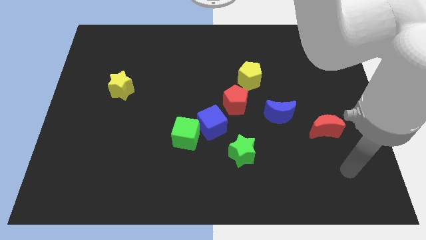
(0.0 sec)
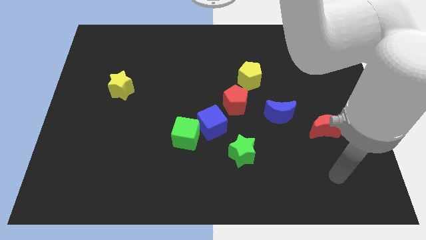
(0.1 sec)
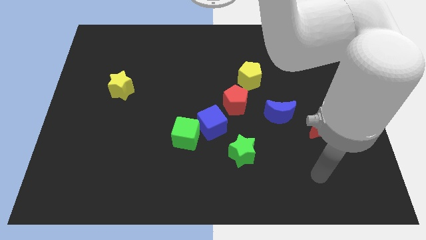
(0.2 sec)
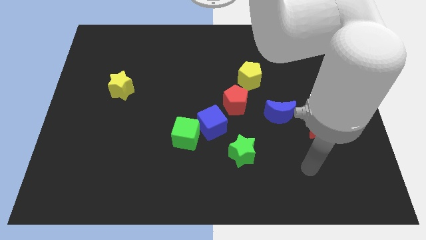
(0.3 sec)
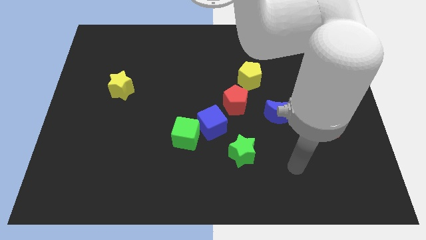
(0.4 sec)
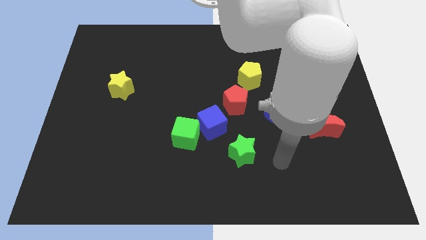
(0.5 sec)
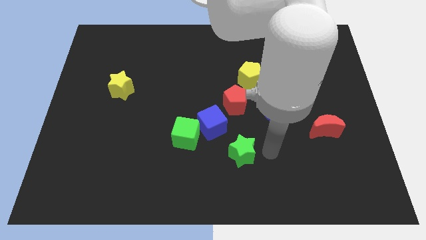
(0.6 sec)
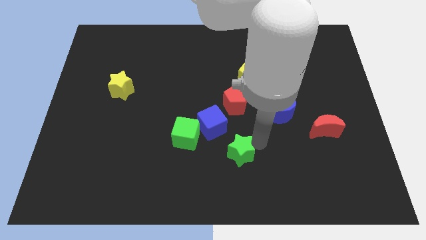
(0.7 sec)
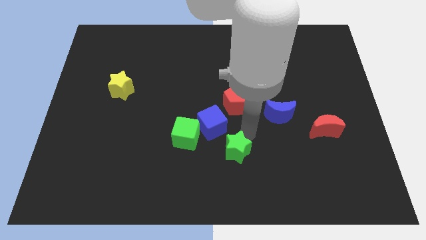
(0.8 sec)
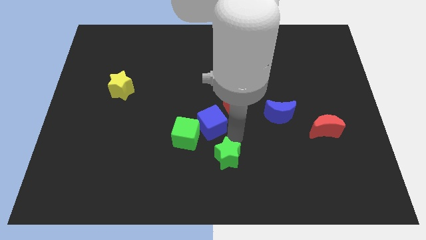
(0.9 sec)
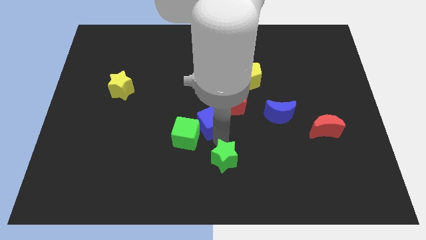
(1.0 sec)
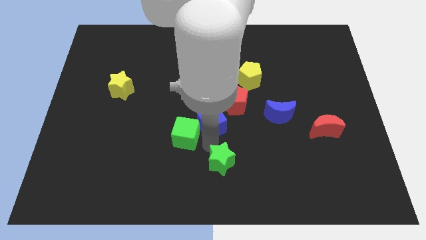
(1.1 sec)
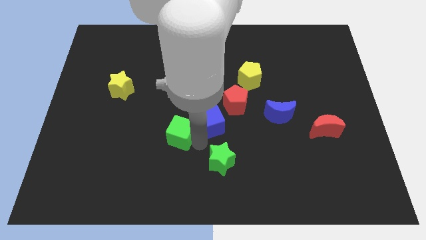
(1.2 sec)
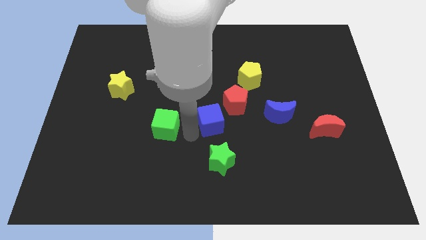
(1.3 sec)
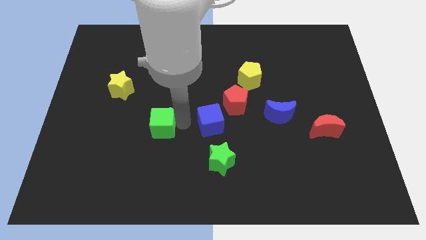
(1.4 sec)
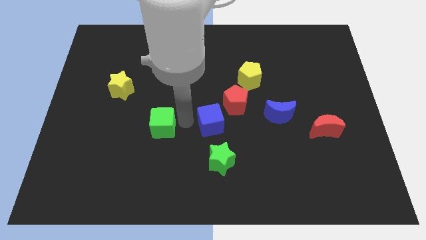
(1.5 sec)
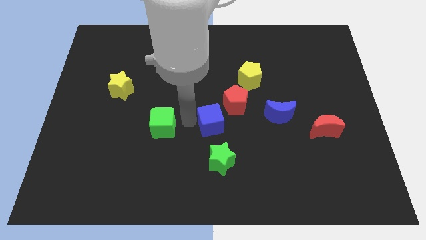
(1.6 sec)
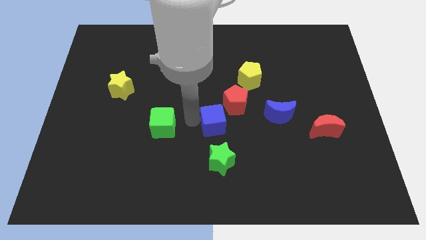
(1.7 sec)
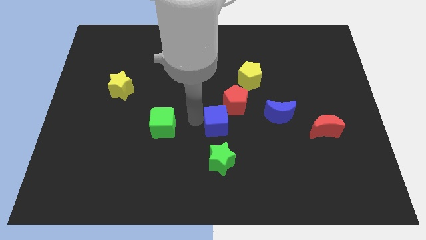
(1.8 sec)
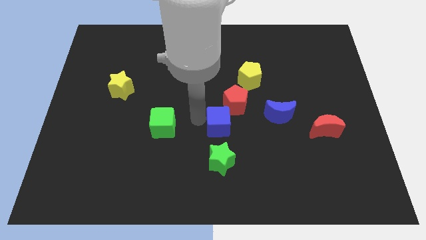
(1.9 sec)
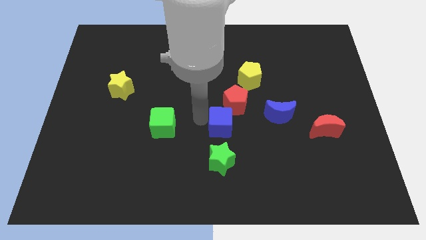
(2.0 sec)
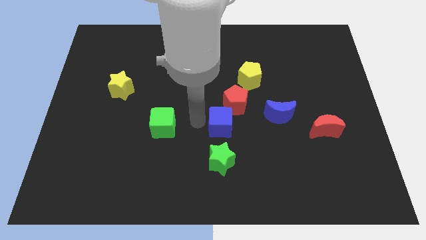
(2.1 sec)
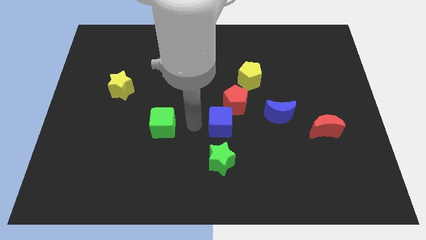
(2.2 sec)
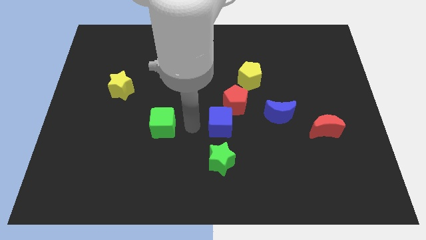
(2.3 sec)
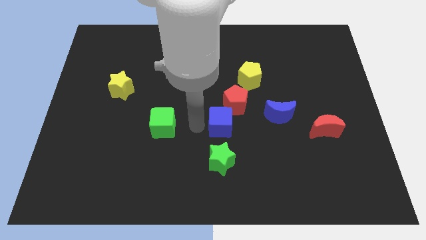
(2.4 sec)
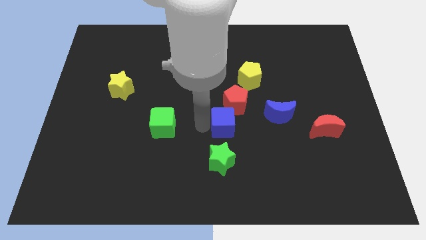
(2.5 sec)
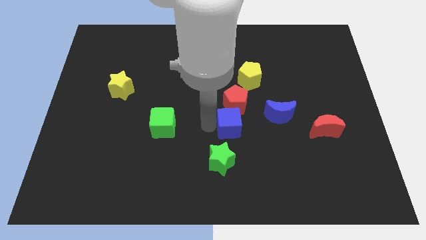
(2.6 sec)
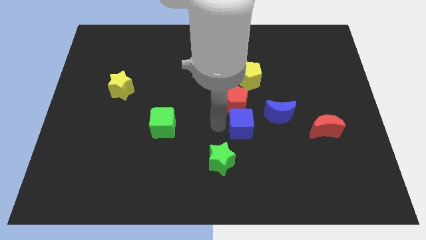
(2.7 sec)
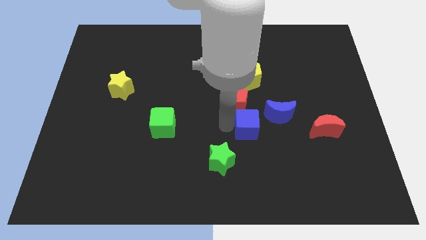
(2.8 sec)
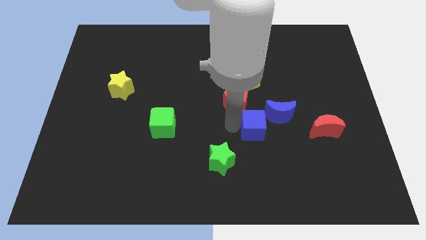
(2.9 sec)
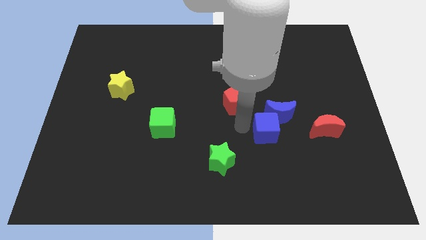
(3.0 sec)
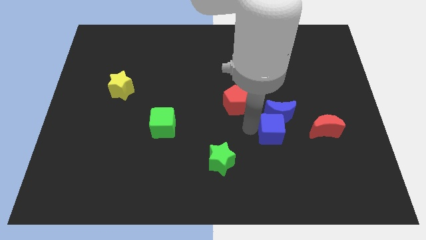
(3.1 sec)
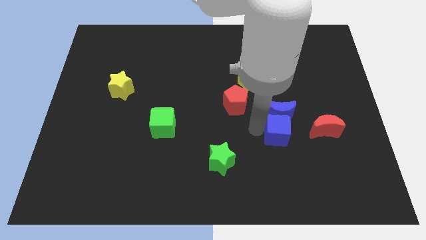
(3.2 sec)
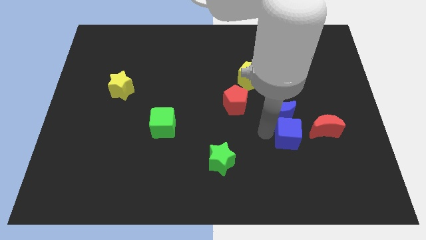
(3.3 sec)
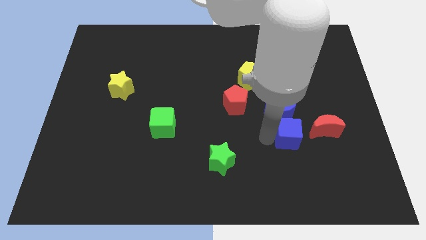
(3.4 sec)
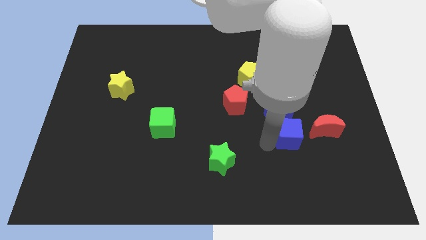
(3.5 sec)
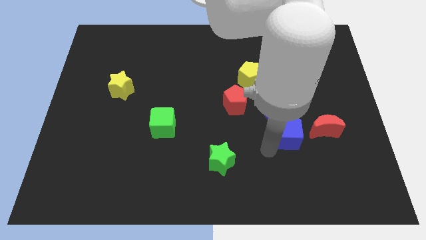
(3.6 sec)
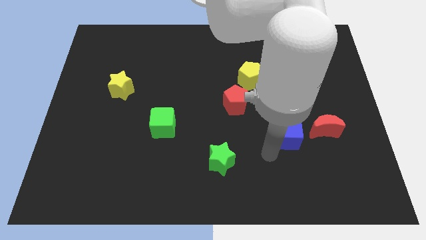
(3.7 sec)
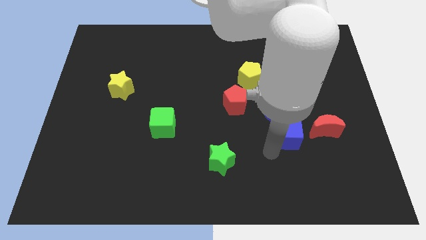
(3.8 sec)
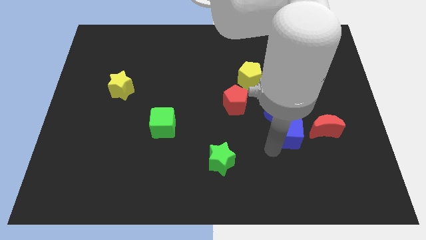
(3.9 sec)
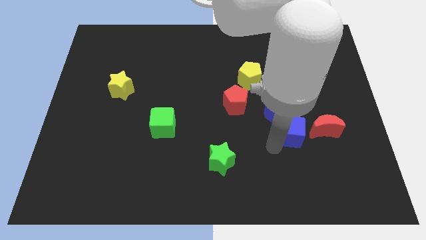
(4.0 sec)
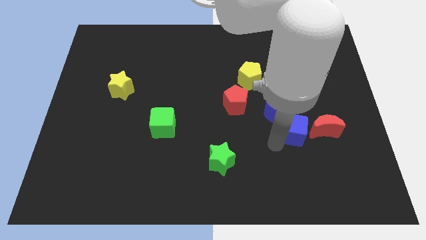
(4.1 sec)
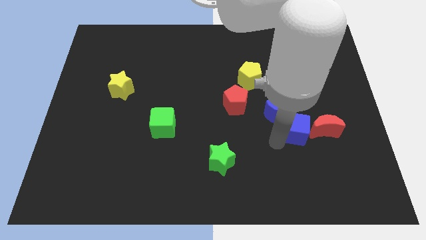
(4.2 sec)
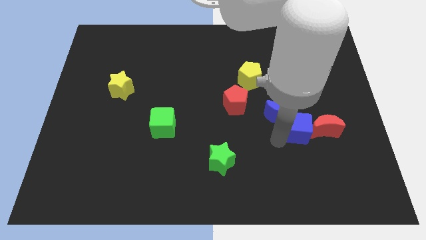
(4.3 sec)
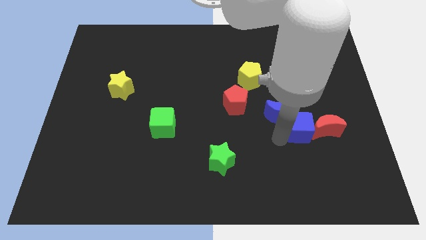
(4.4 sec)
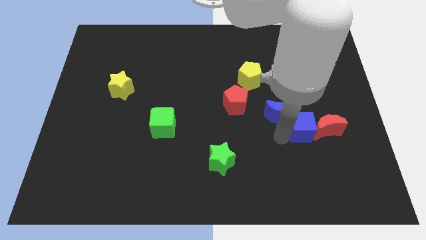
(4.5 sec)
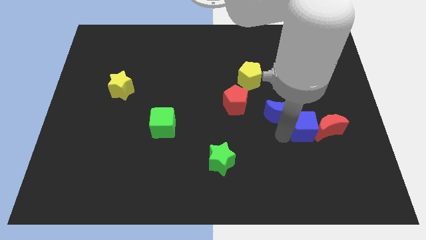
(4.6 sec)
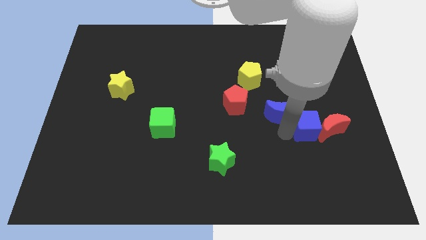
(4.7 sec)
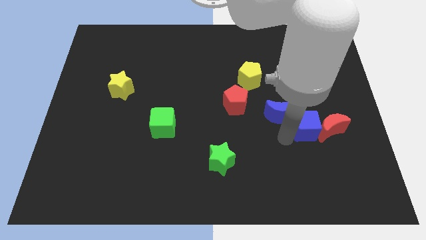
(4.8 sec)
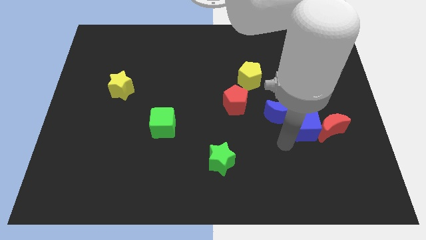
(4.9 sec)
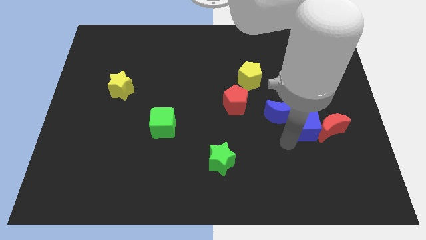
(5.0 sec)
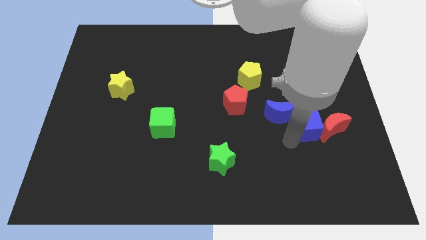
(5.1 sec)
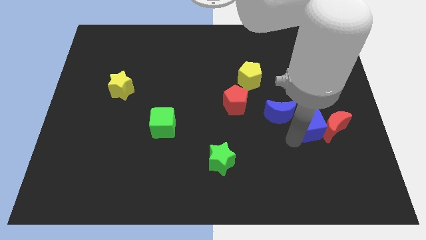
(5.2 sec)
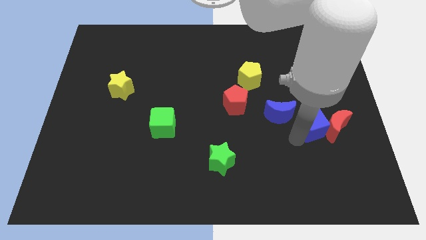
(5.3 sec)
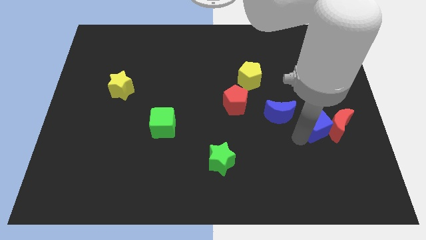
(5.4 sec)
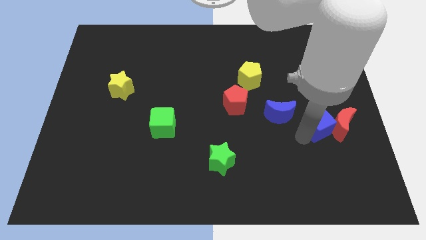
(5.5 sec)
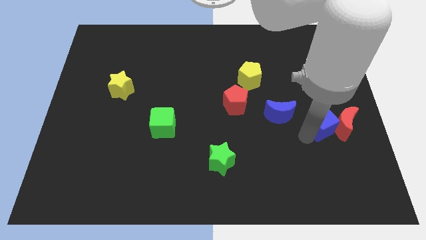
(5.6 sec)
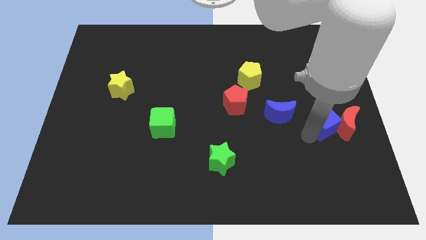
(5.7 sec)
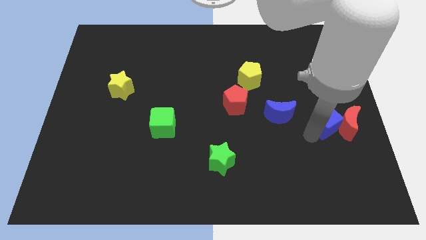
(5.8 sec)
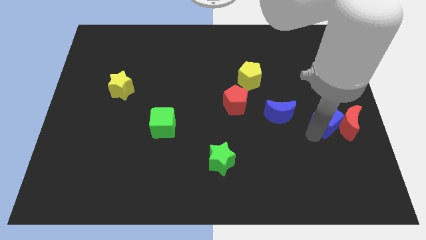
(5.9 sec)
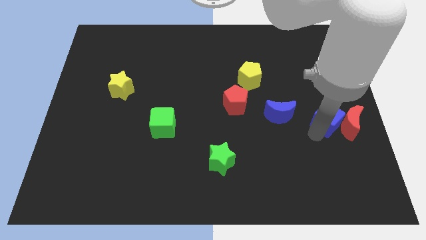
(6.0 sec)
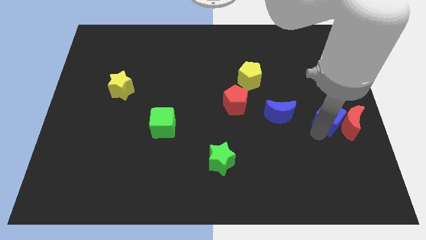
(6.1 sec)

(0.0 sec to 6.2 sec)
put the blue cube to the right side
